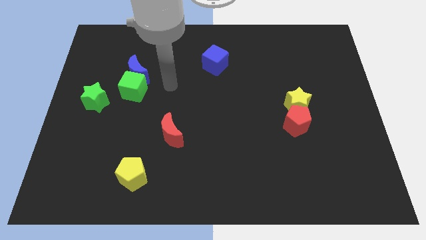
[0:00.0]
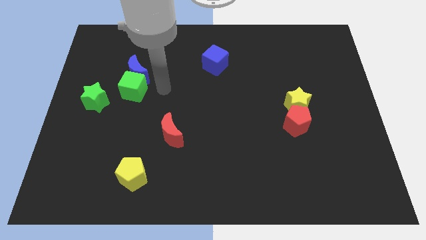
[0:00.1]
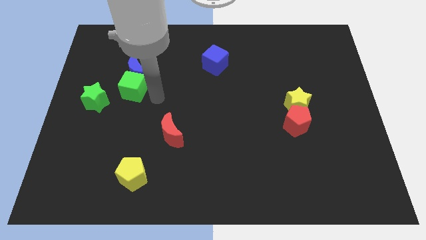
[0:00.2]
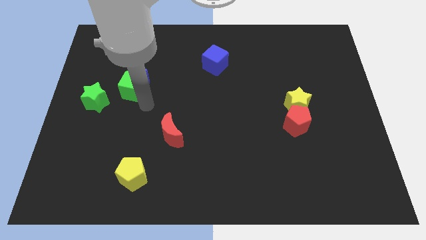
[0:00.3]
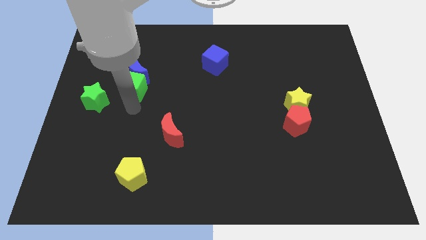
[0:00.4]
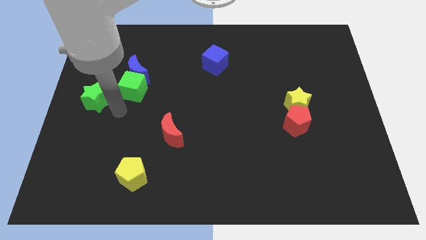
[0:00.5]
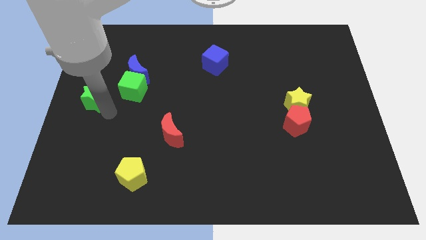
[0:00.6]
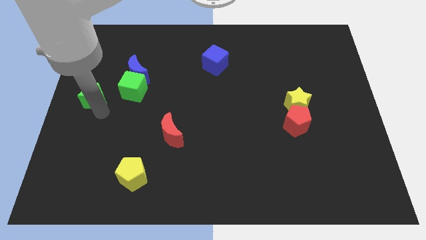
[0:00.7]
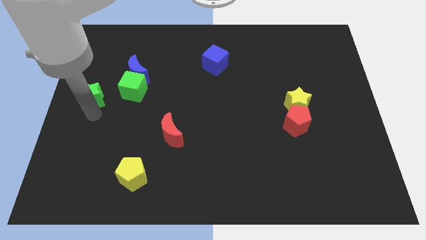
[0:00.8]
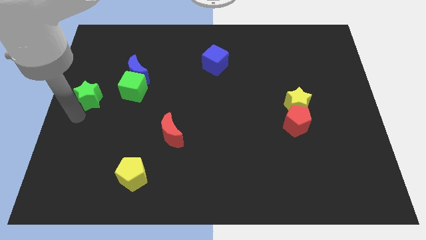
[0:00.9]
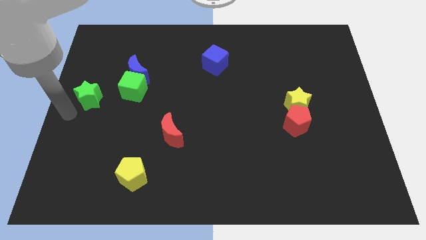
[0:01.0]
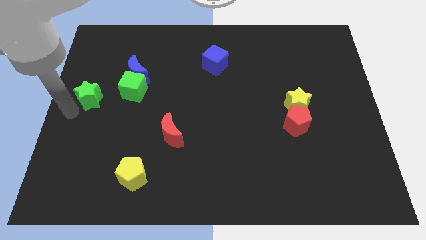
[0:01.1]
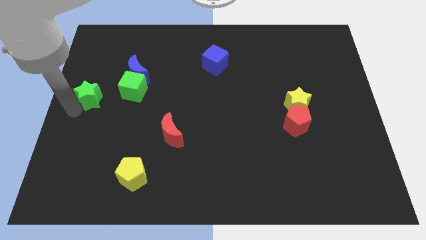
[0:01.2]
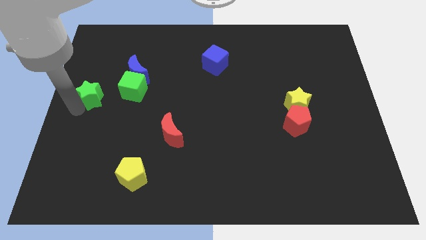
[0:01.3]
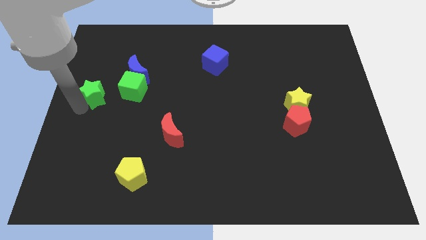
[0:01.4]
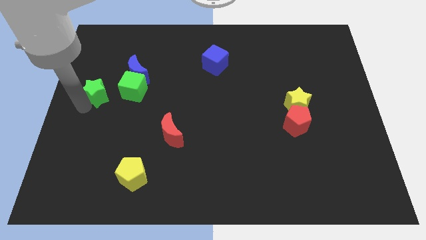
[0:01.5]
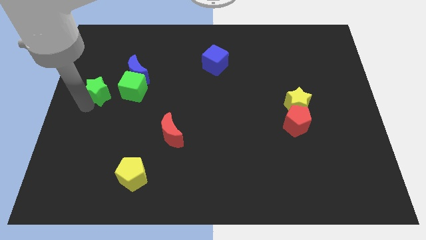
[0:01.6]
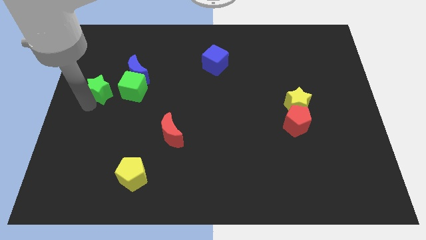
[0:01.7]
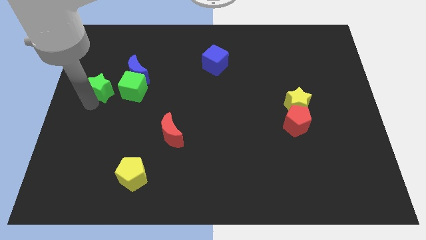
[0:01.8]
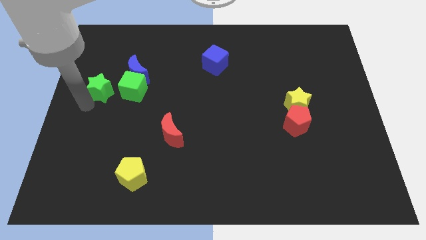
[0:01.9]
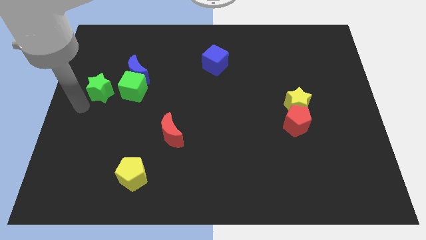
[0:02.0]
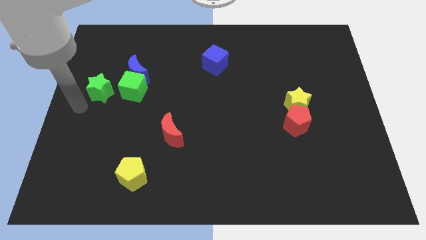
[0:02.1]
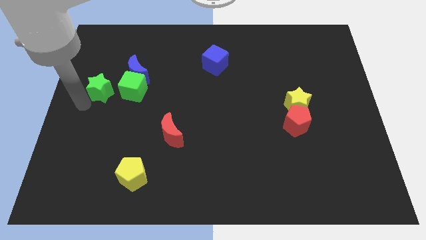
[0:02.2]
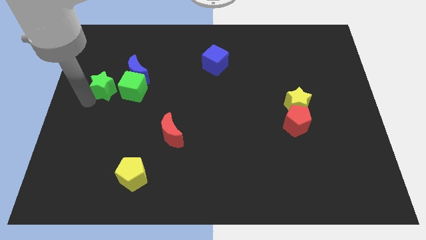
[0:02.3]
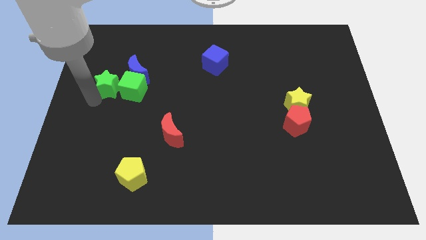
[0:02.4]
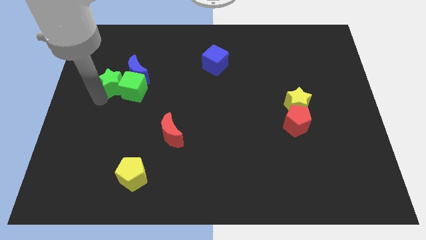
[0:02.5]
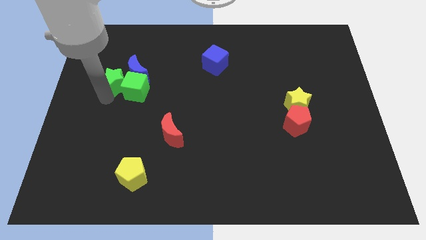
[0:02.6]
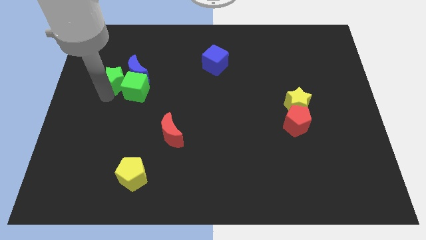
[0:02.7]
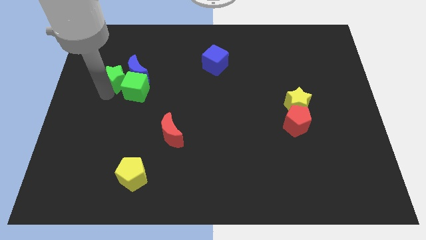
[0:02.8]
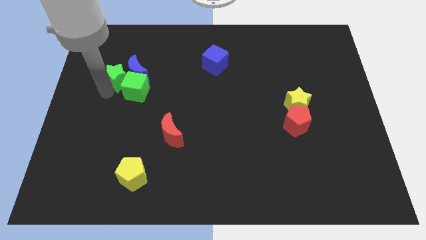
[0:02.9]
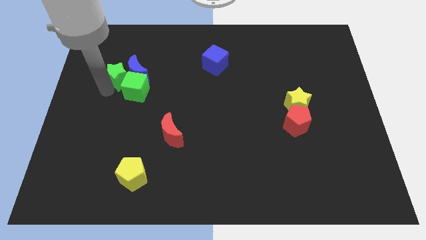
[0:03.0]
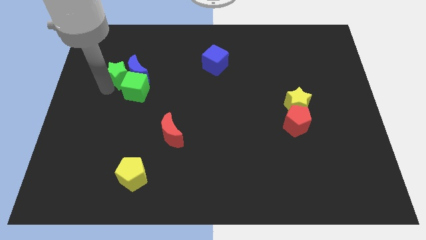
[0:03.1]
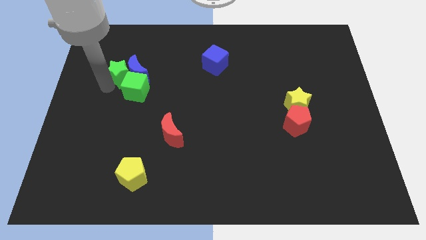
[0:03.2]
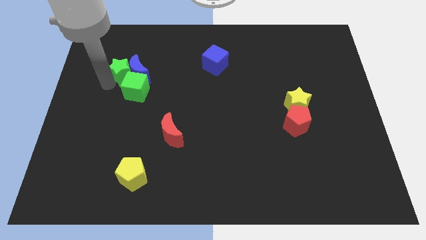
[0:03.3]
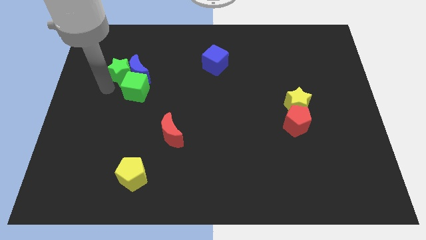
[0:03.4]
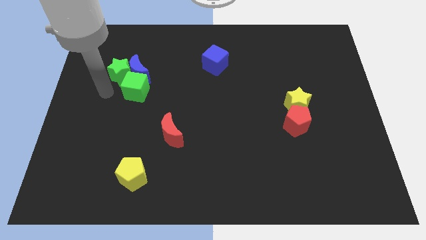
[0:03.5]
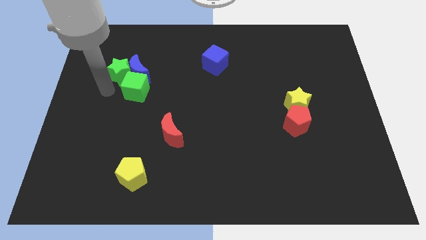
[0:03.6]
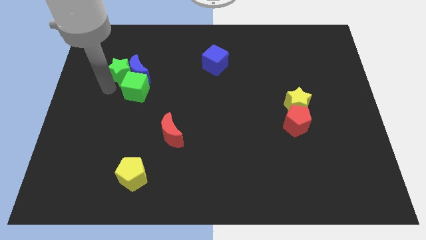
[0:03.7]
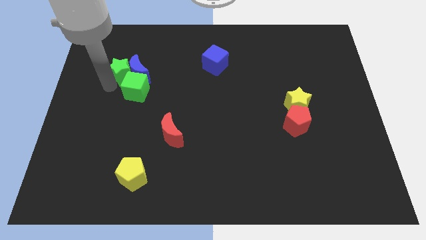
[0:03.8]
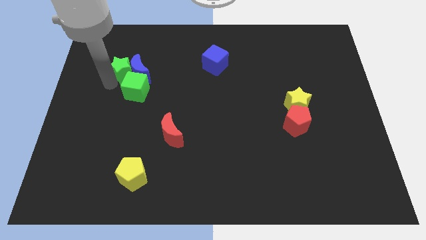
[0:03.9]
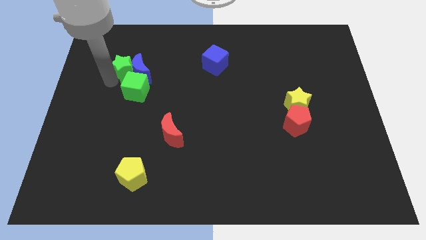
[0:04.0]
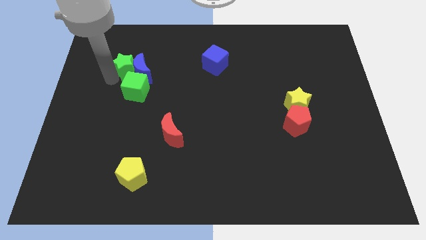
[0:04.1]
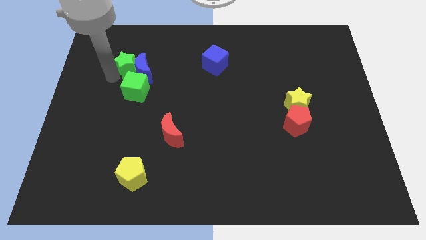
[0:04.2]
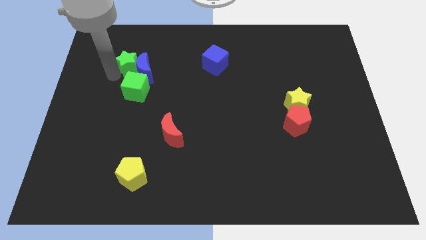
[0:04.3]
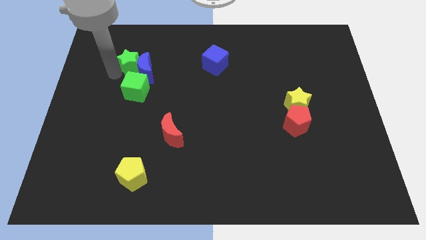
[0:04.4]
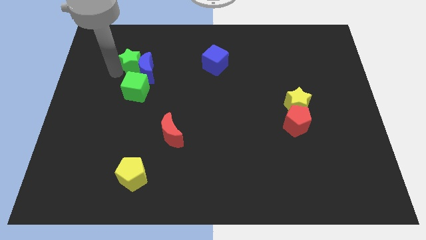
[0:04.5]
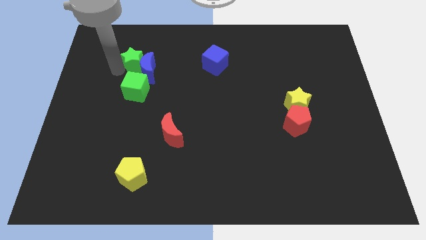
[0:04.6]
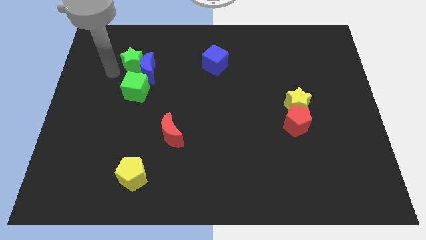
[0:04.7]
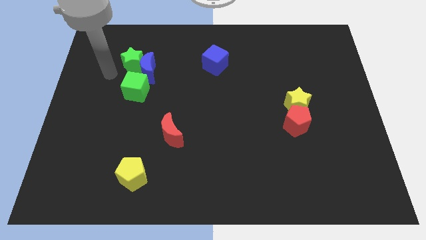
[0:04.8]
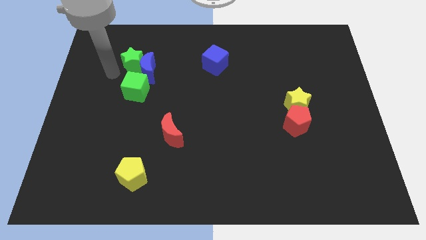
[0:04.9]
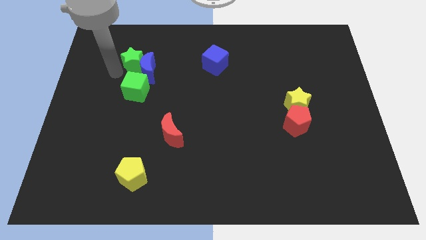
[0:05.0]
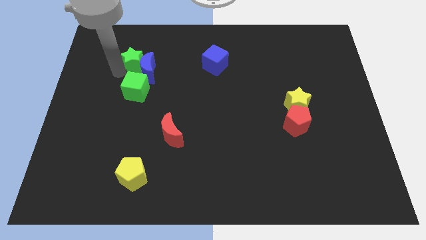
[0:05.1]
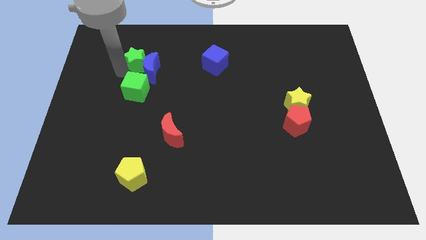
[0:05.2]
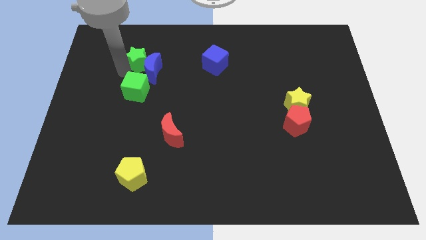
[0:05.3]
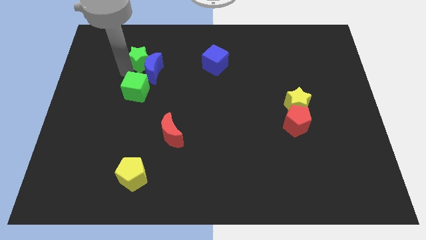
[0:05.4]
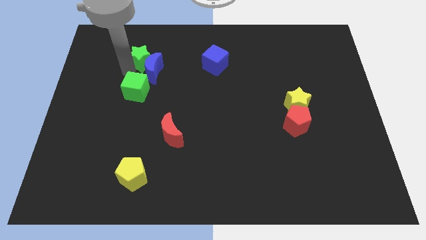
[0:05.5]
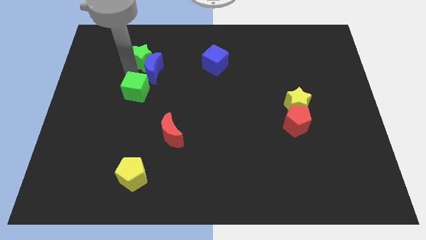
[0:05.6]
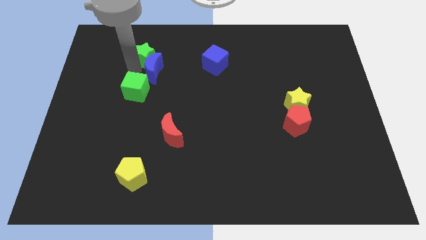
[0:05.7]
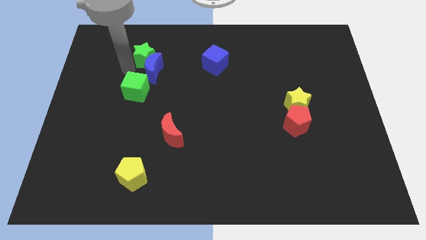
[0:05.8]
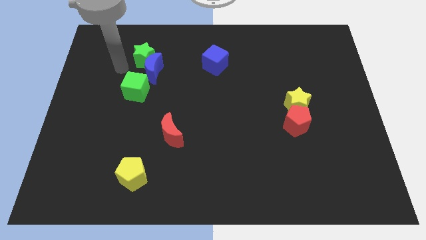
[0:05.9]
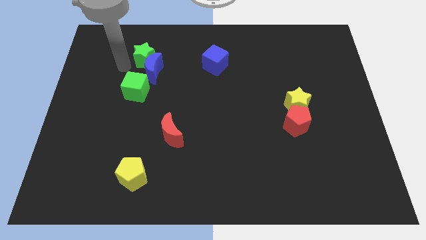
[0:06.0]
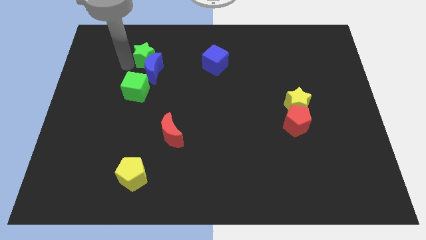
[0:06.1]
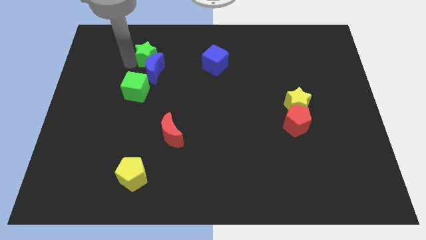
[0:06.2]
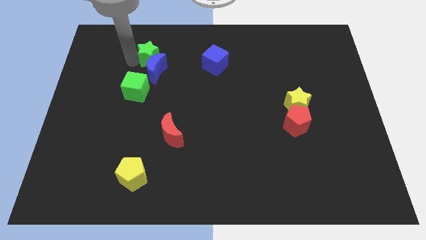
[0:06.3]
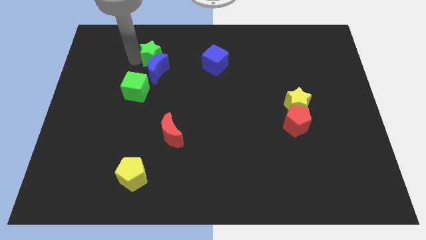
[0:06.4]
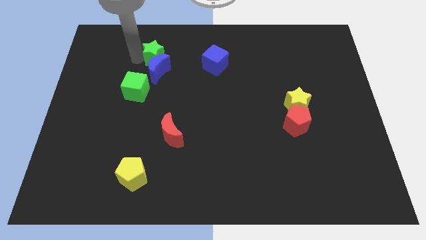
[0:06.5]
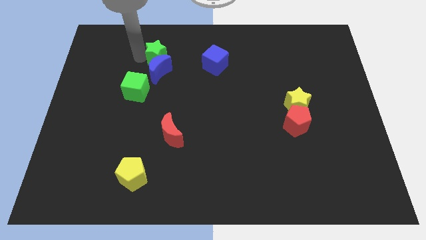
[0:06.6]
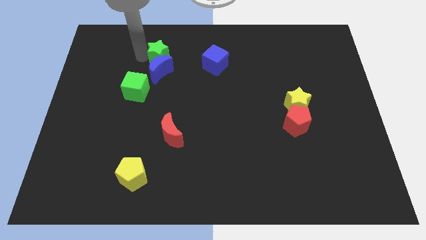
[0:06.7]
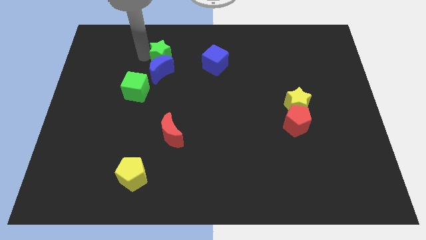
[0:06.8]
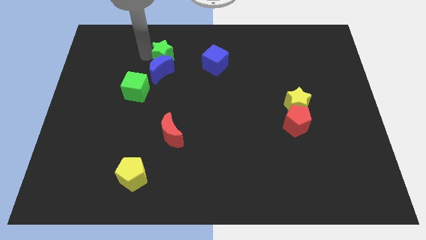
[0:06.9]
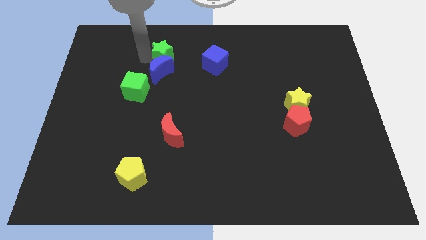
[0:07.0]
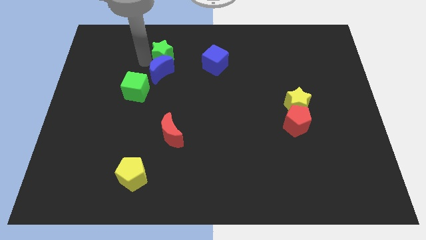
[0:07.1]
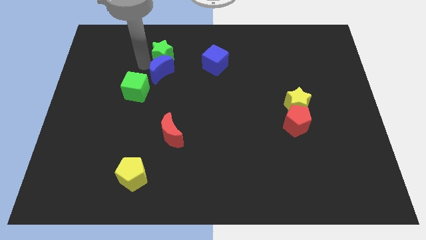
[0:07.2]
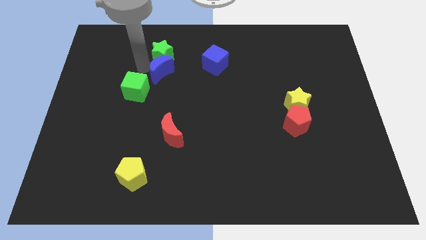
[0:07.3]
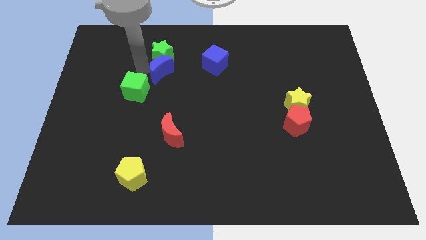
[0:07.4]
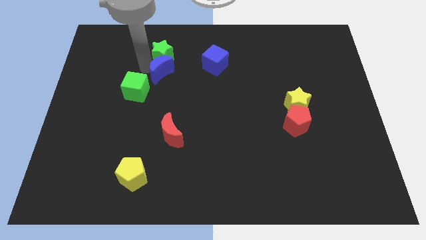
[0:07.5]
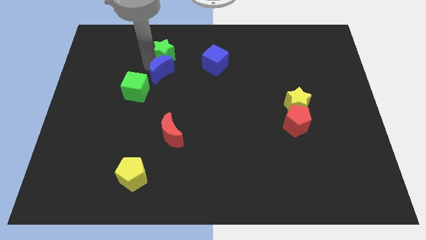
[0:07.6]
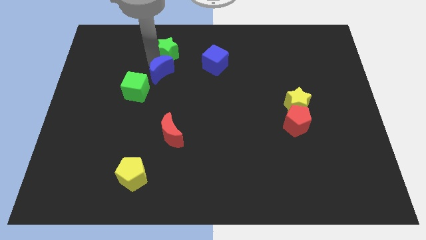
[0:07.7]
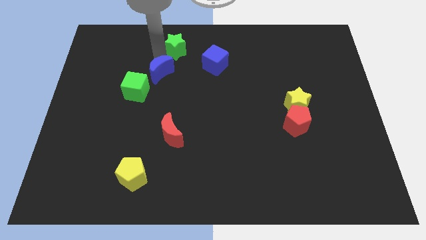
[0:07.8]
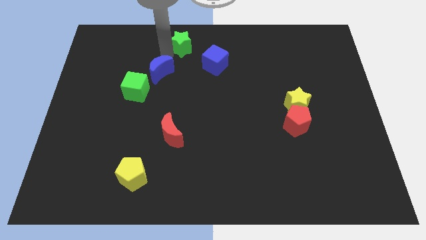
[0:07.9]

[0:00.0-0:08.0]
put the green star to the top
